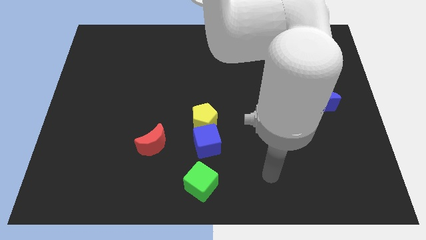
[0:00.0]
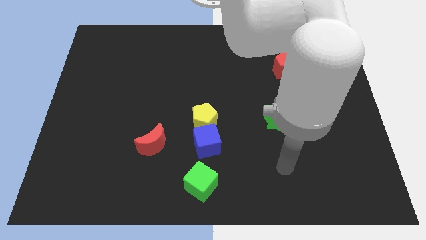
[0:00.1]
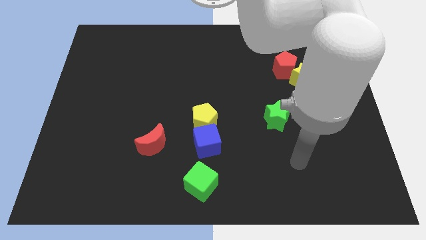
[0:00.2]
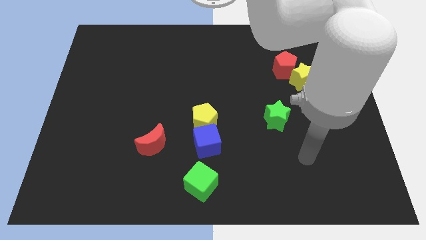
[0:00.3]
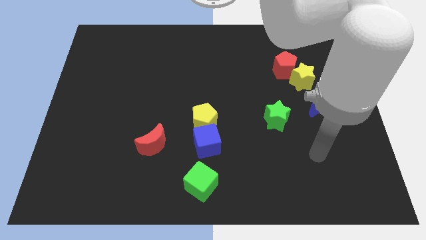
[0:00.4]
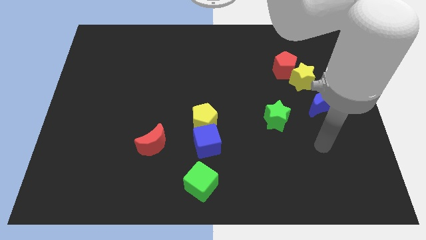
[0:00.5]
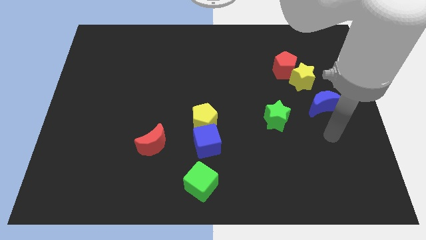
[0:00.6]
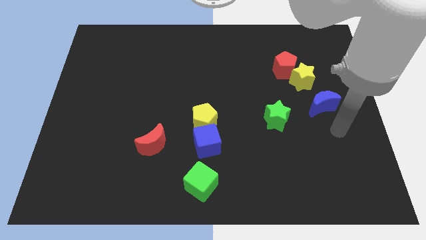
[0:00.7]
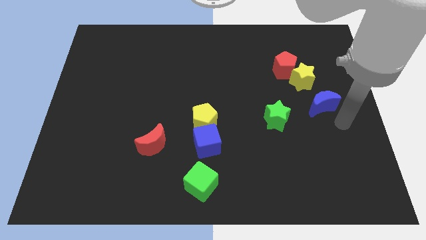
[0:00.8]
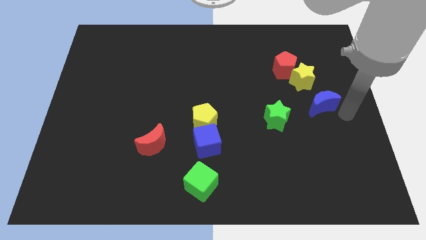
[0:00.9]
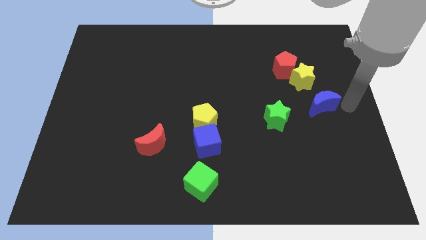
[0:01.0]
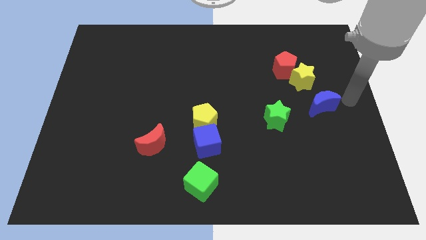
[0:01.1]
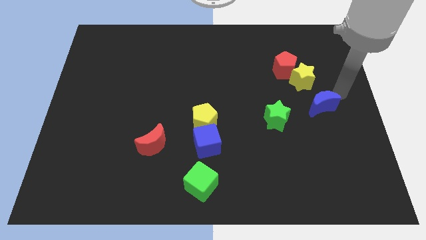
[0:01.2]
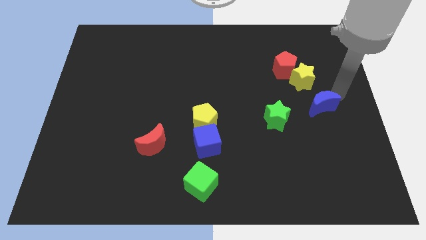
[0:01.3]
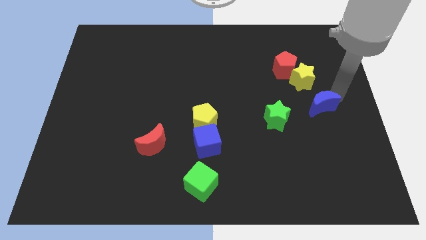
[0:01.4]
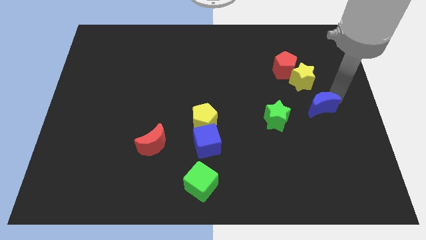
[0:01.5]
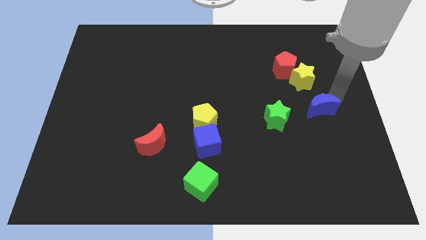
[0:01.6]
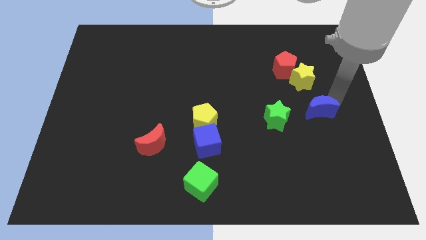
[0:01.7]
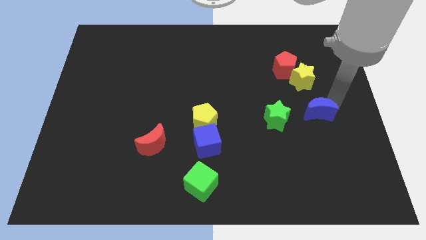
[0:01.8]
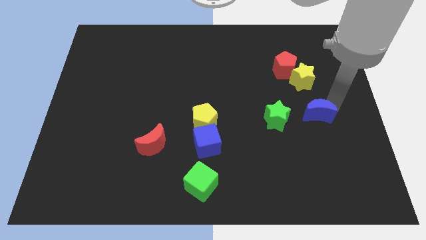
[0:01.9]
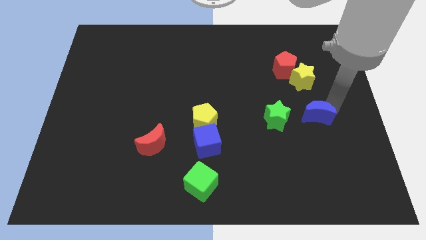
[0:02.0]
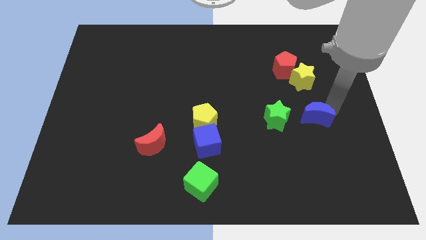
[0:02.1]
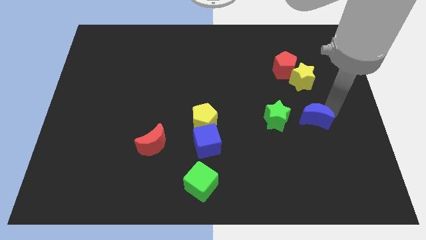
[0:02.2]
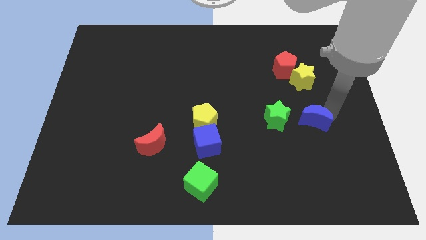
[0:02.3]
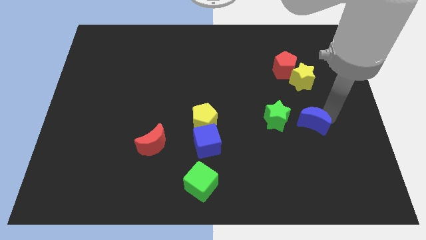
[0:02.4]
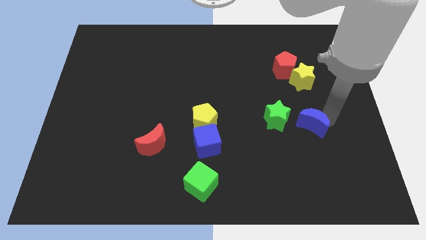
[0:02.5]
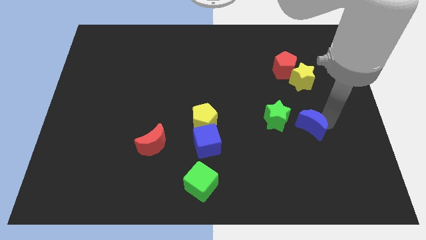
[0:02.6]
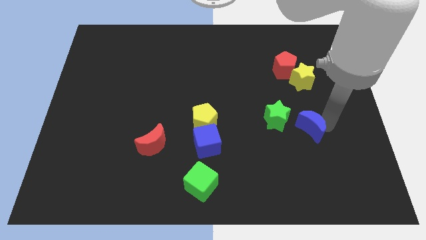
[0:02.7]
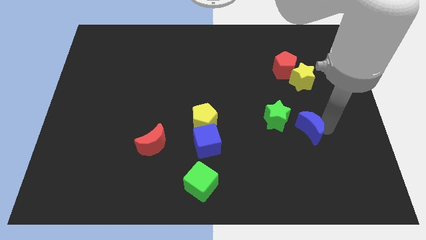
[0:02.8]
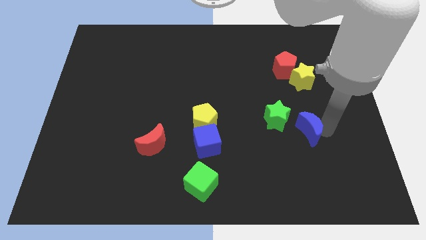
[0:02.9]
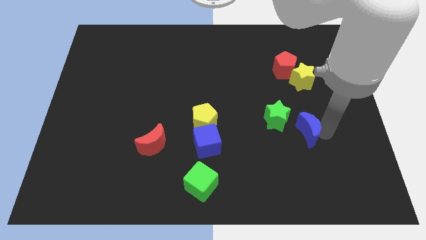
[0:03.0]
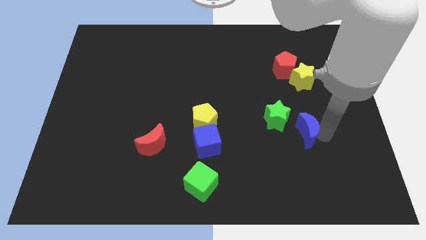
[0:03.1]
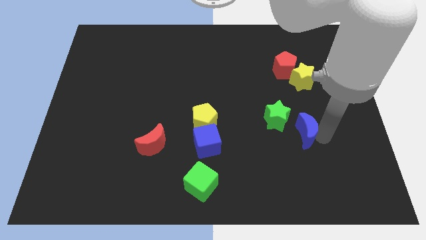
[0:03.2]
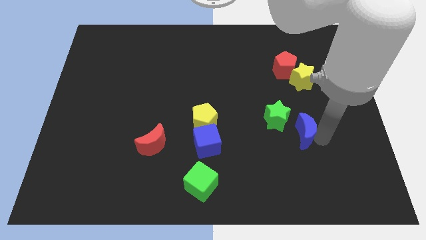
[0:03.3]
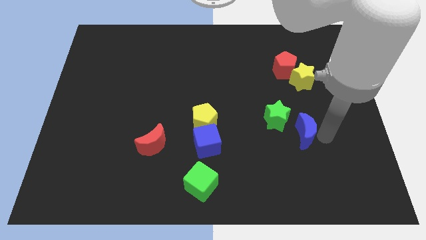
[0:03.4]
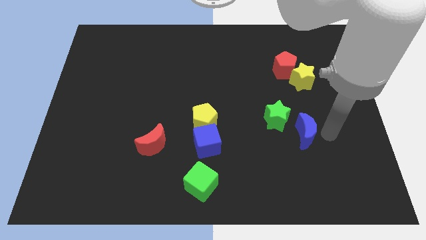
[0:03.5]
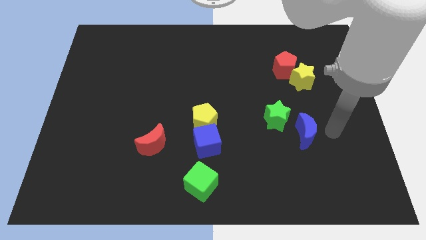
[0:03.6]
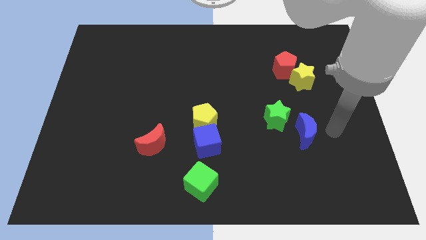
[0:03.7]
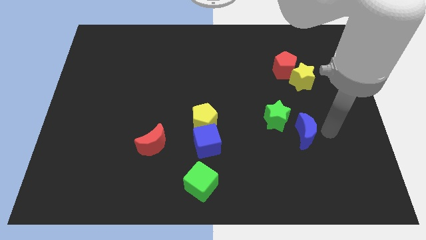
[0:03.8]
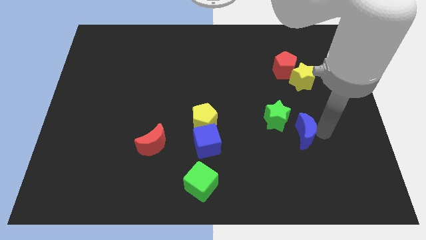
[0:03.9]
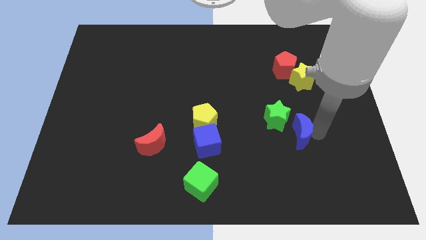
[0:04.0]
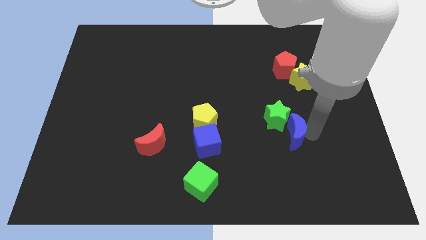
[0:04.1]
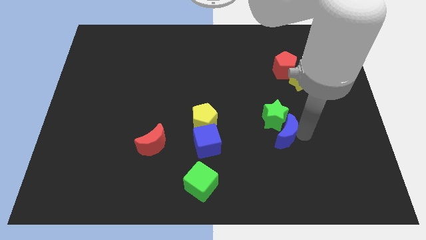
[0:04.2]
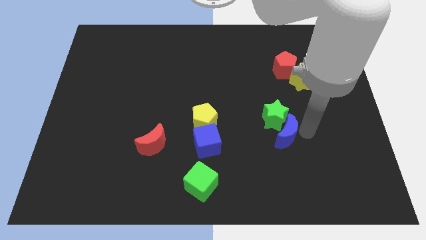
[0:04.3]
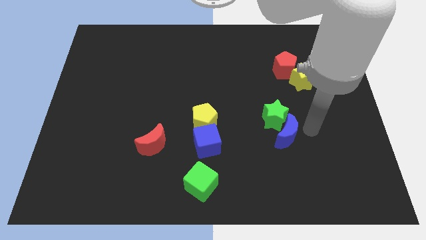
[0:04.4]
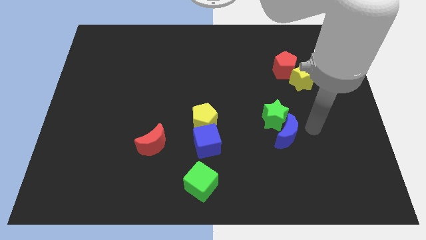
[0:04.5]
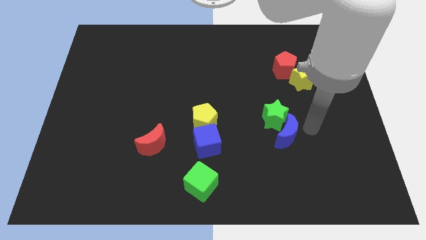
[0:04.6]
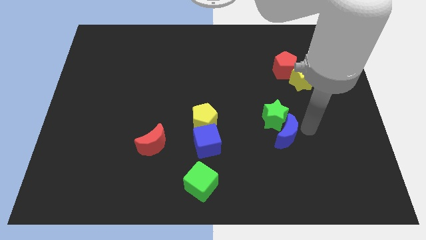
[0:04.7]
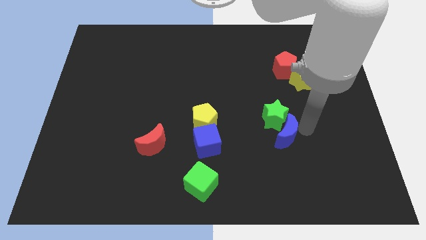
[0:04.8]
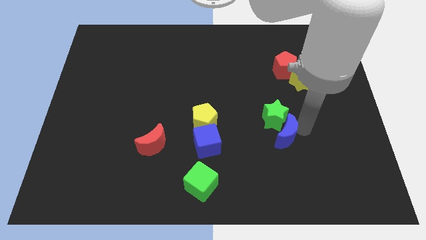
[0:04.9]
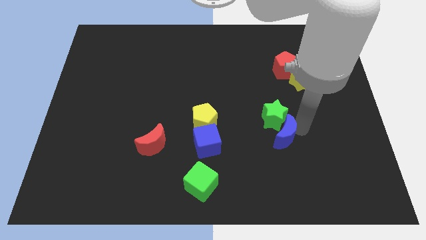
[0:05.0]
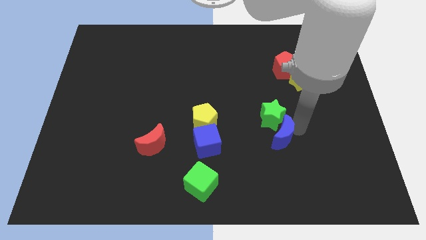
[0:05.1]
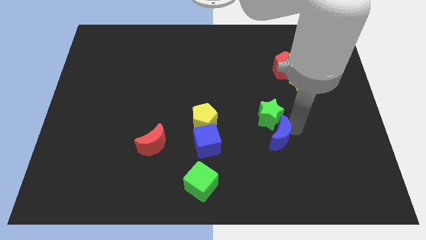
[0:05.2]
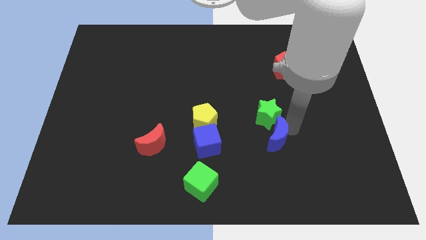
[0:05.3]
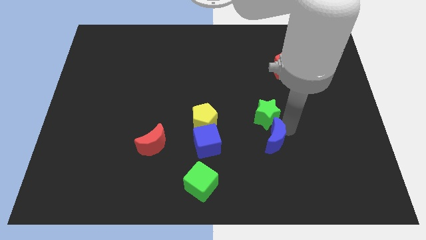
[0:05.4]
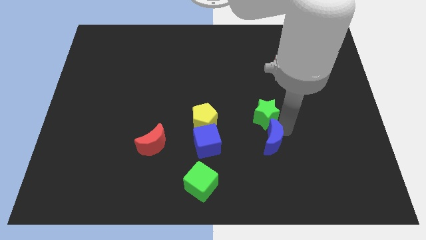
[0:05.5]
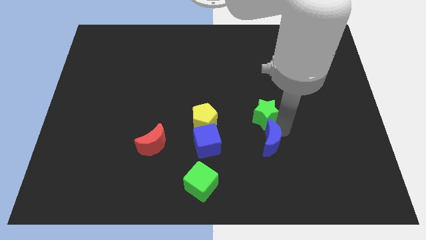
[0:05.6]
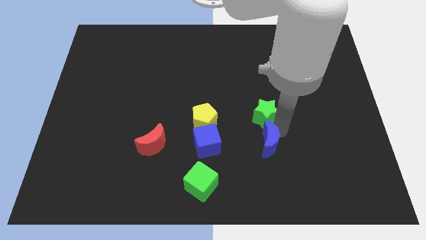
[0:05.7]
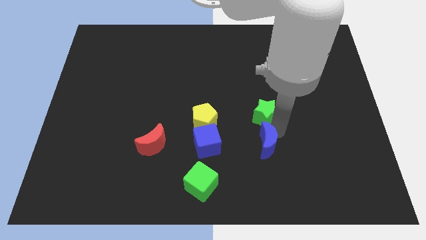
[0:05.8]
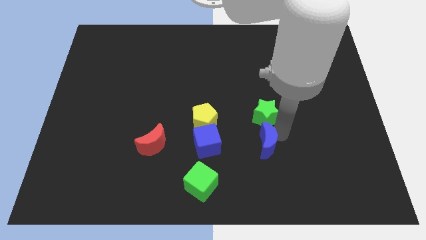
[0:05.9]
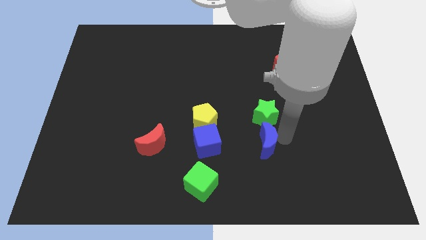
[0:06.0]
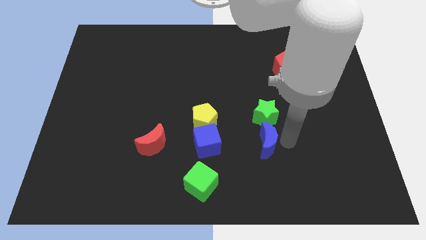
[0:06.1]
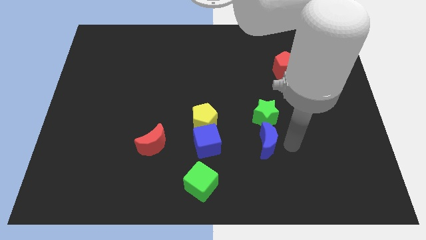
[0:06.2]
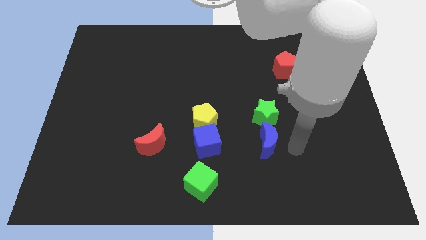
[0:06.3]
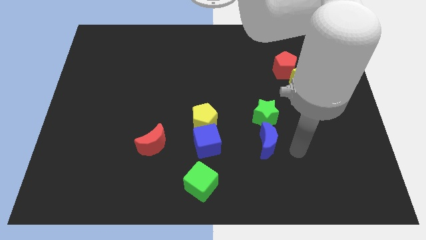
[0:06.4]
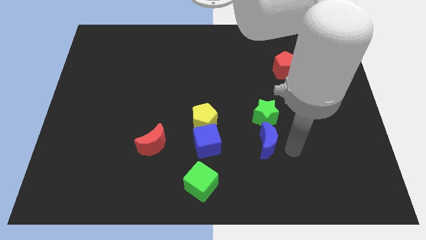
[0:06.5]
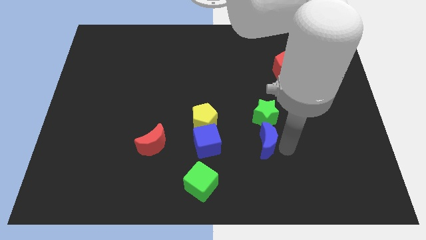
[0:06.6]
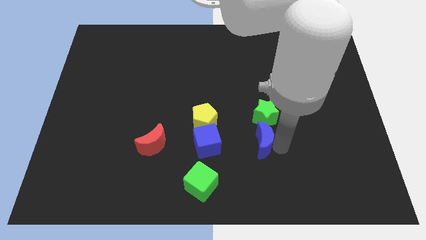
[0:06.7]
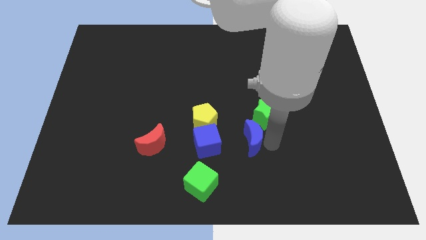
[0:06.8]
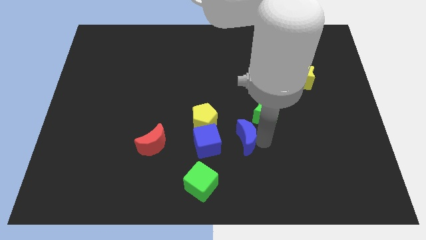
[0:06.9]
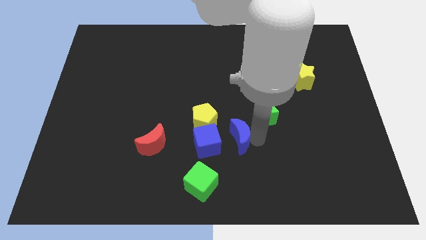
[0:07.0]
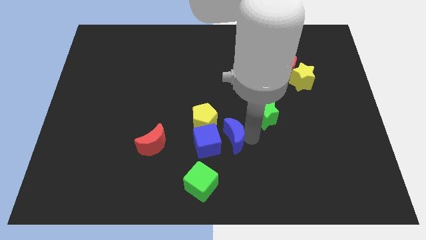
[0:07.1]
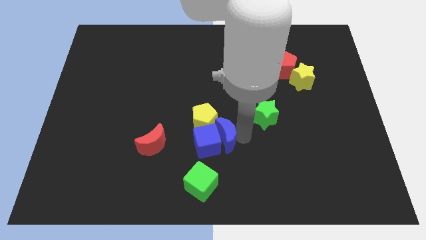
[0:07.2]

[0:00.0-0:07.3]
slide the blue moon close to the blue cube

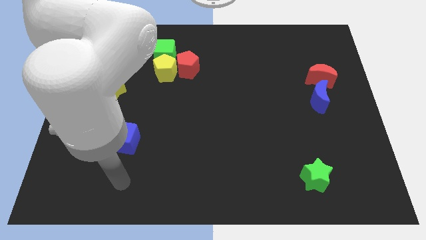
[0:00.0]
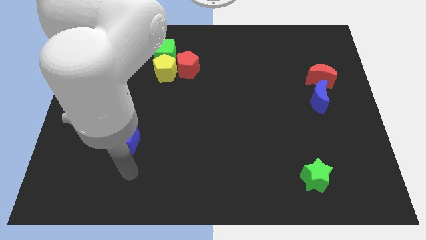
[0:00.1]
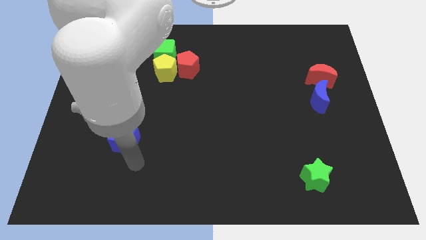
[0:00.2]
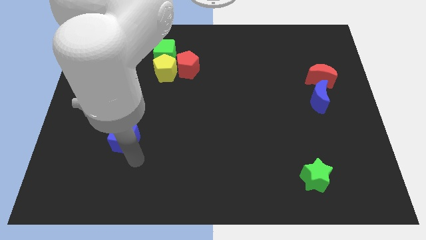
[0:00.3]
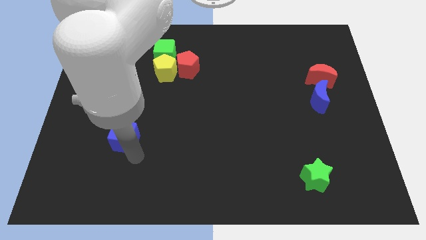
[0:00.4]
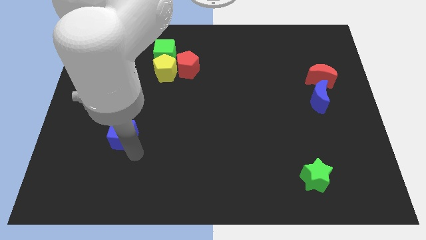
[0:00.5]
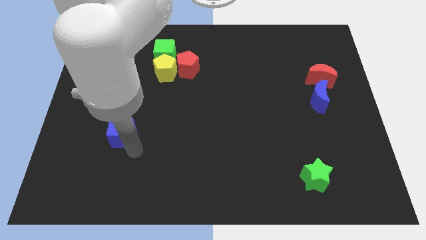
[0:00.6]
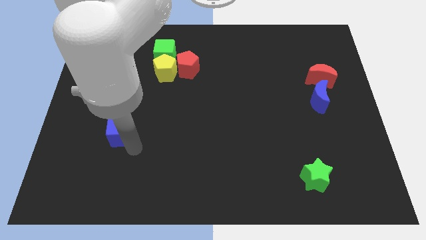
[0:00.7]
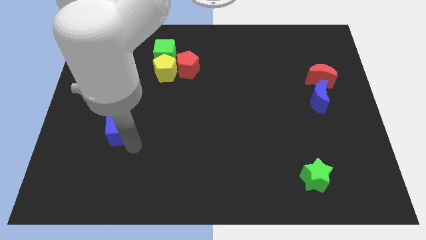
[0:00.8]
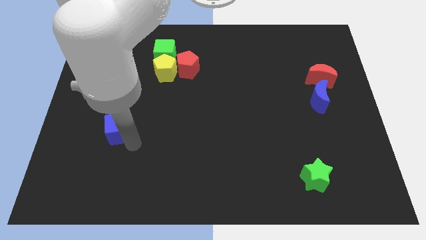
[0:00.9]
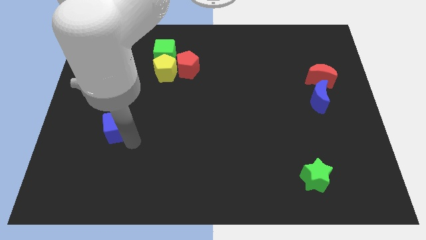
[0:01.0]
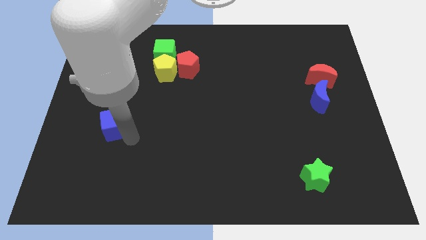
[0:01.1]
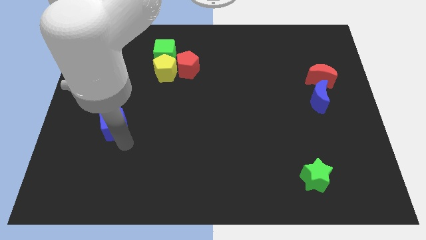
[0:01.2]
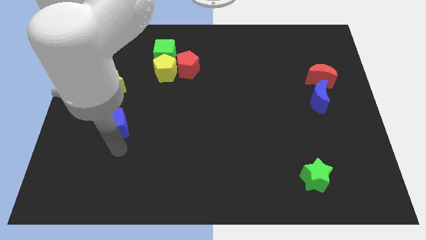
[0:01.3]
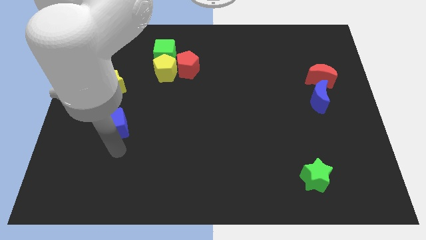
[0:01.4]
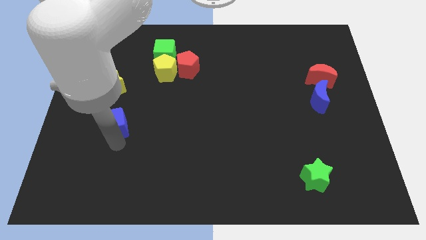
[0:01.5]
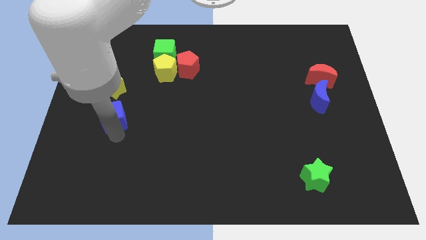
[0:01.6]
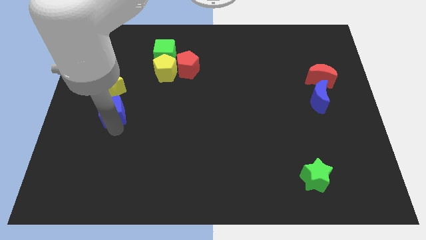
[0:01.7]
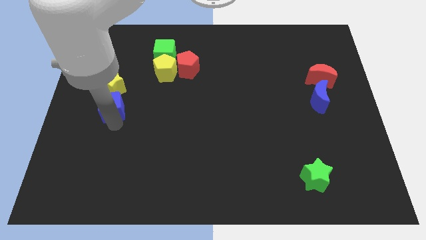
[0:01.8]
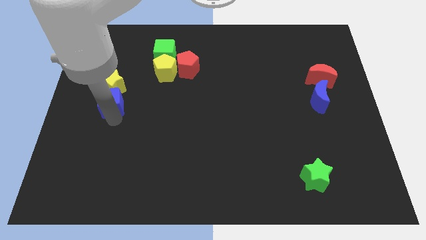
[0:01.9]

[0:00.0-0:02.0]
push the blue cube close to the yellow star
